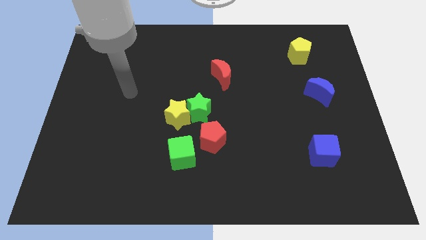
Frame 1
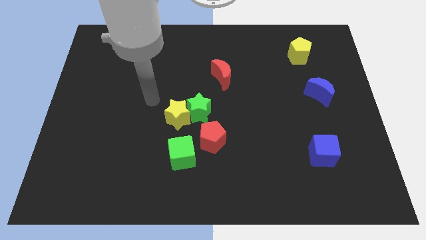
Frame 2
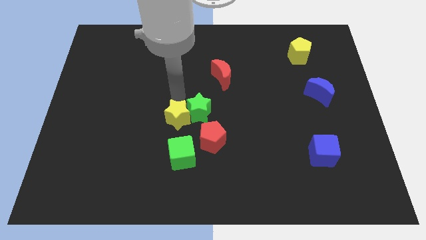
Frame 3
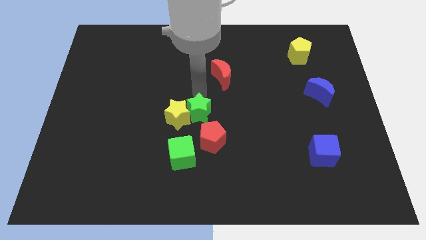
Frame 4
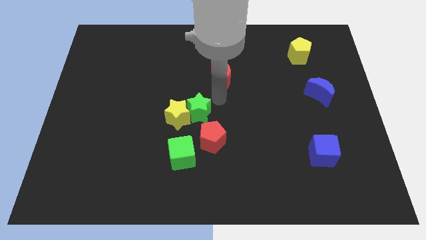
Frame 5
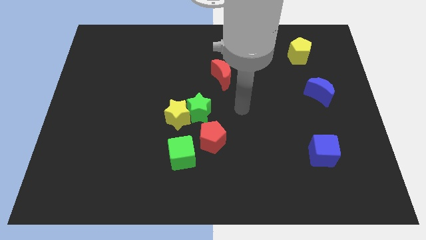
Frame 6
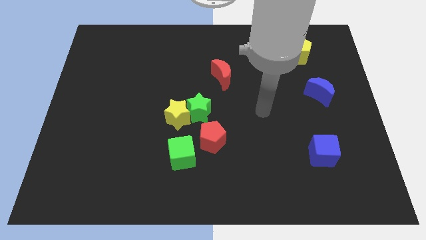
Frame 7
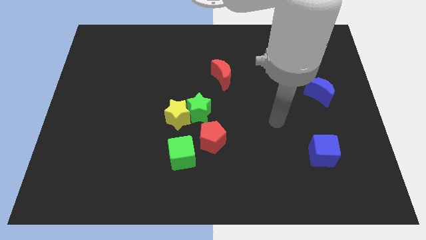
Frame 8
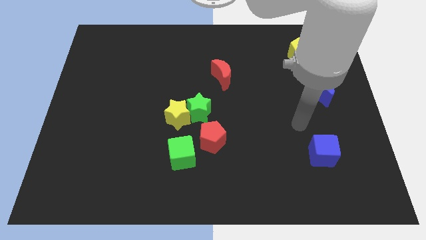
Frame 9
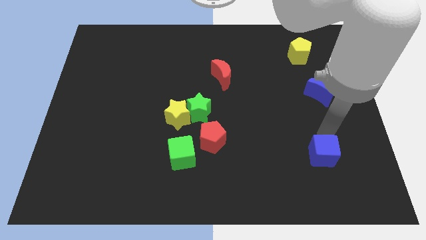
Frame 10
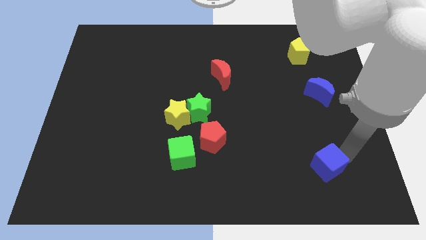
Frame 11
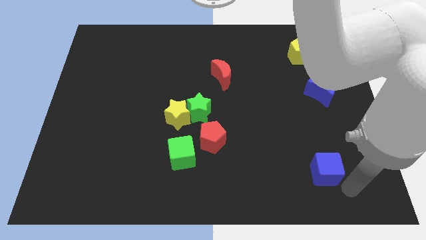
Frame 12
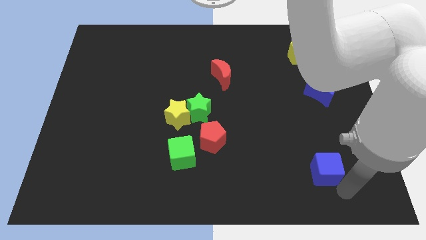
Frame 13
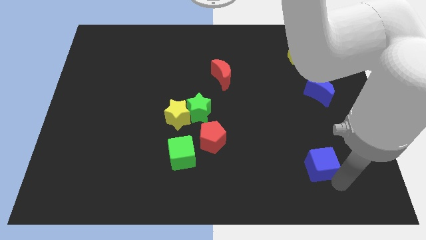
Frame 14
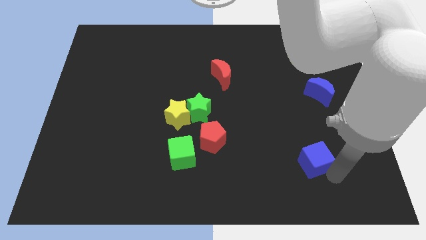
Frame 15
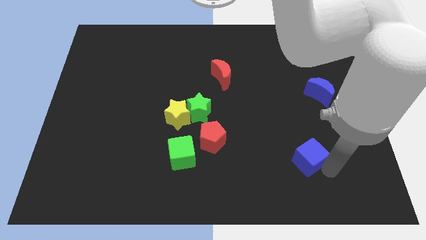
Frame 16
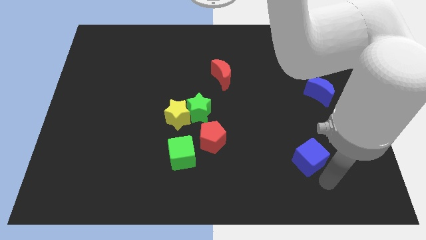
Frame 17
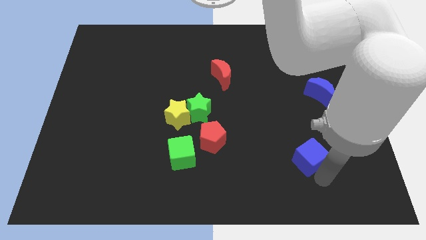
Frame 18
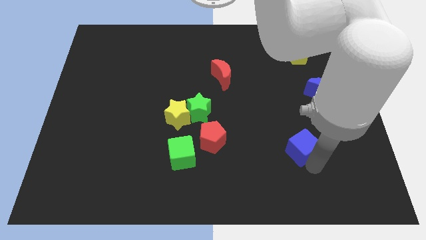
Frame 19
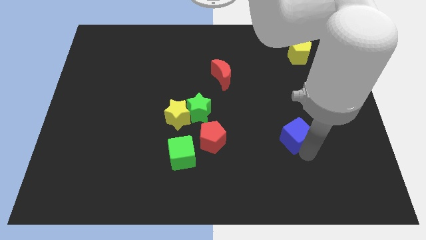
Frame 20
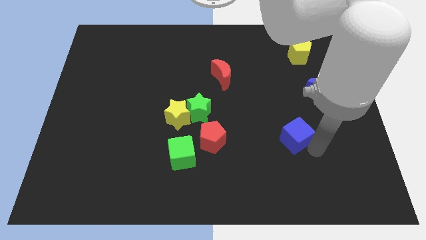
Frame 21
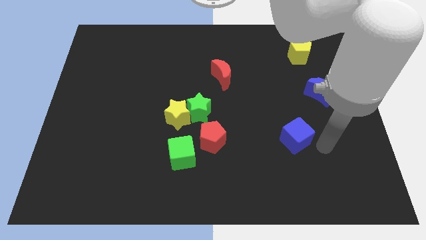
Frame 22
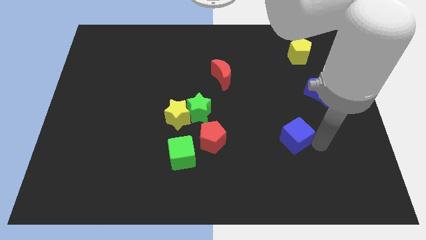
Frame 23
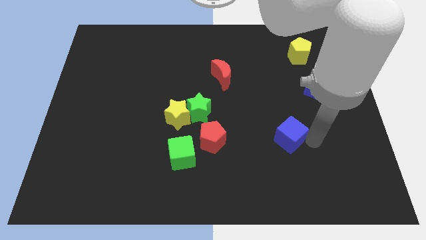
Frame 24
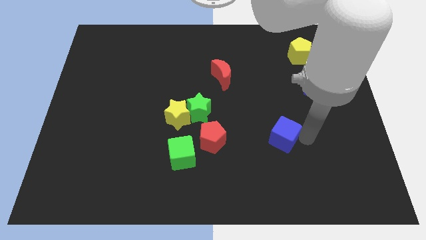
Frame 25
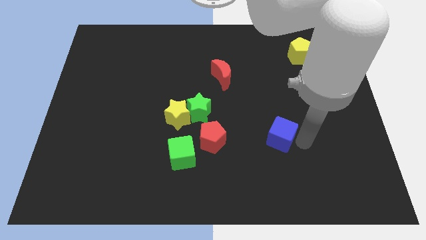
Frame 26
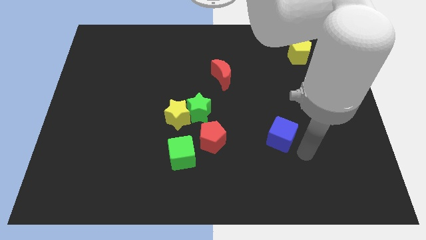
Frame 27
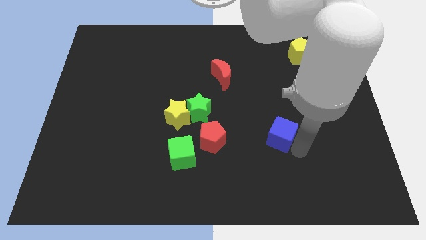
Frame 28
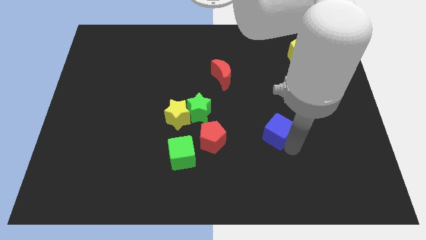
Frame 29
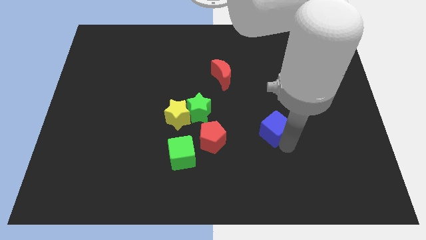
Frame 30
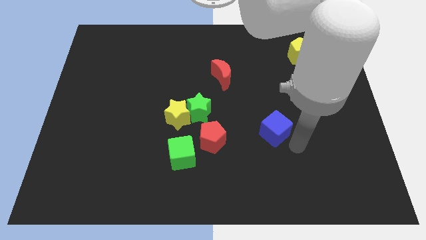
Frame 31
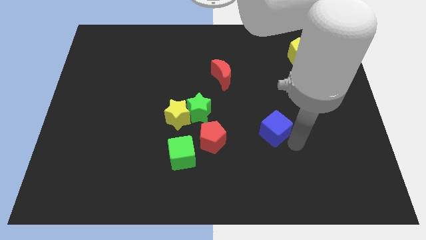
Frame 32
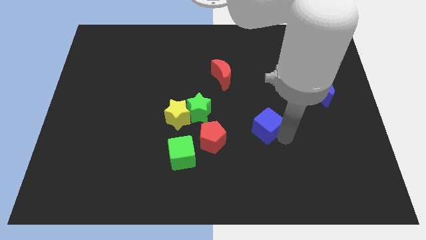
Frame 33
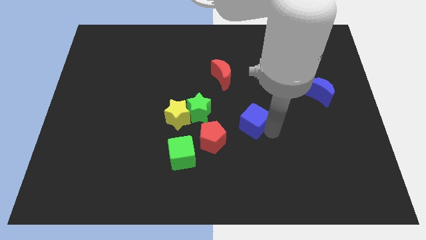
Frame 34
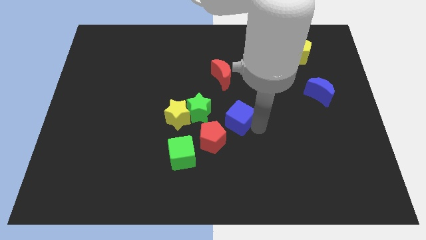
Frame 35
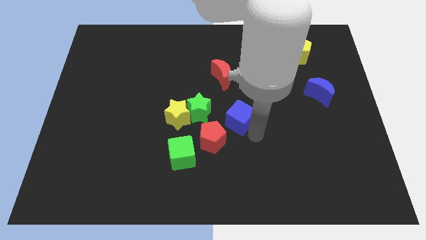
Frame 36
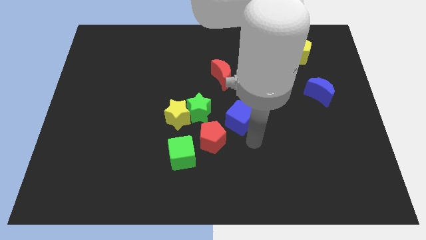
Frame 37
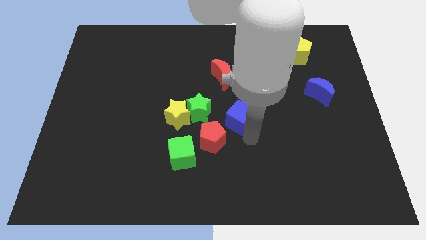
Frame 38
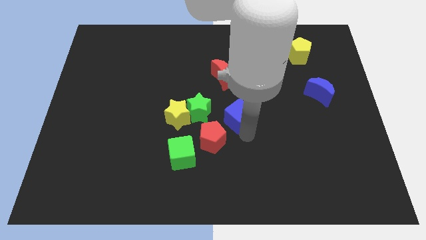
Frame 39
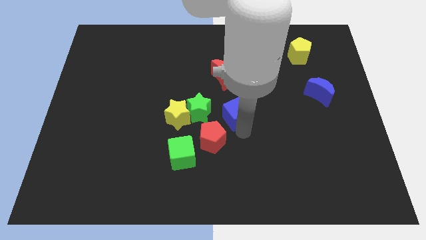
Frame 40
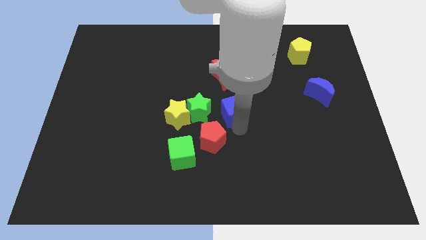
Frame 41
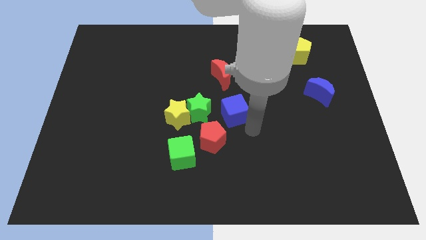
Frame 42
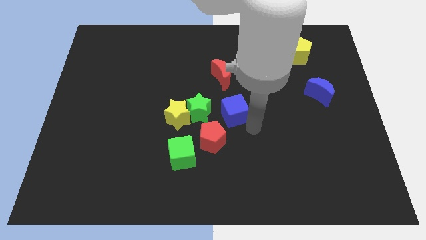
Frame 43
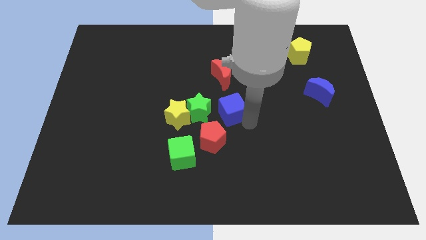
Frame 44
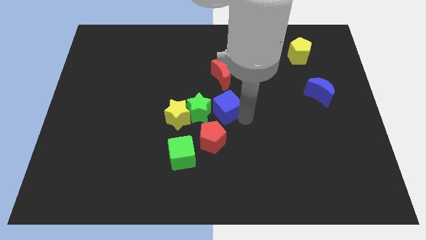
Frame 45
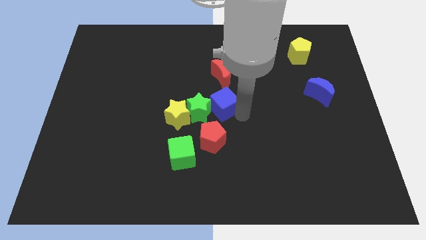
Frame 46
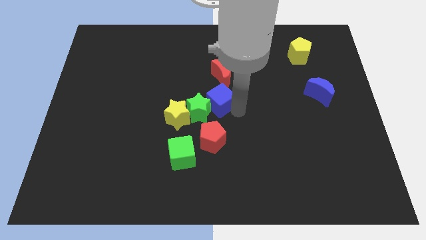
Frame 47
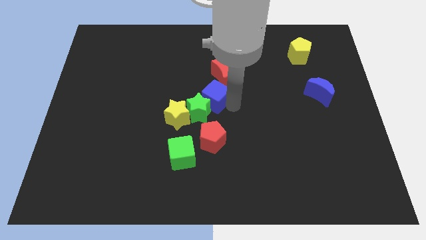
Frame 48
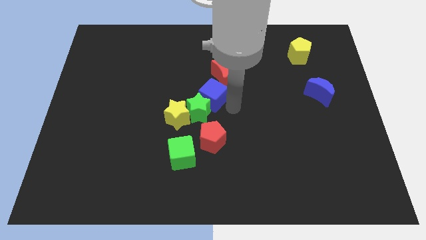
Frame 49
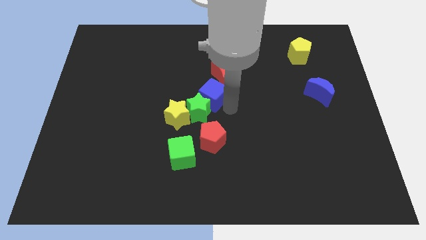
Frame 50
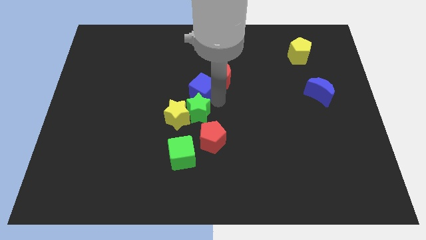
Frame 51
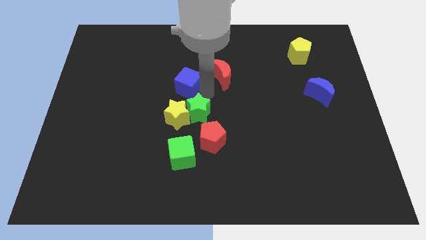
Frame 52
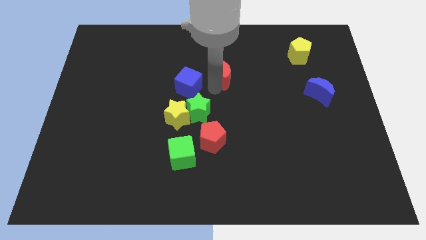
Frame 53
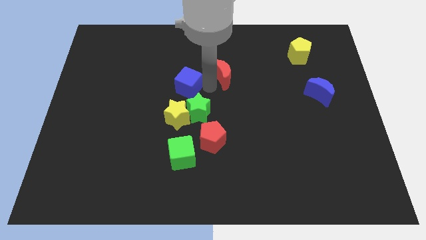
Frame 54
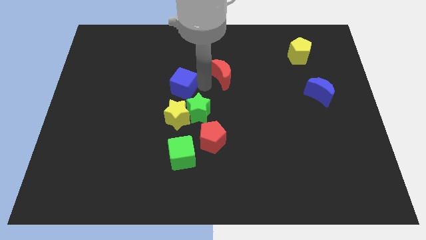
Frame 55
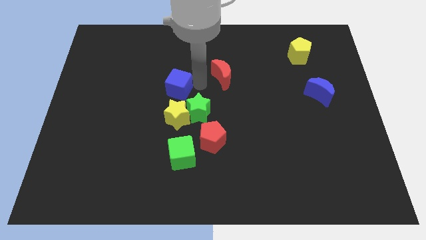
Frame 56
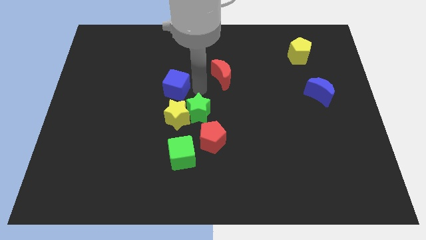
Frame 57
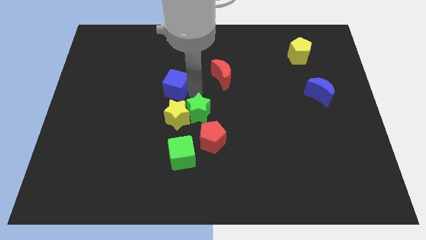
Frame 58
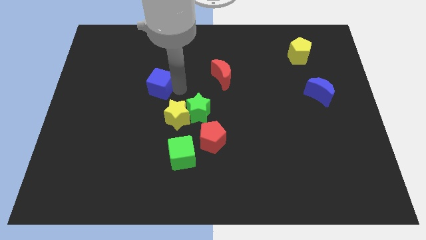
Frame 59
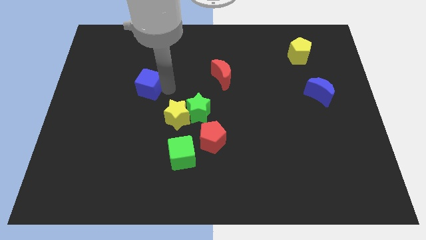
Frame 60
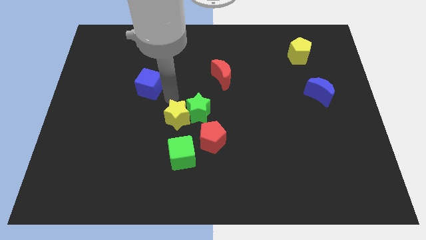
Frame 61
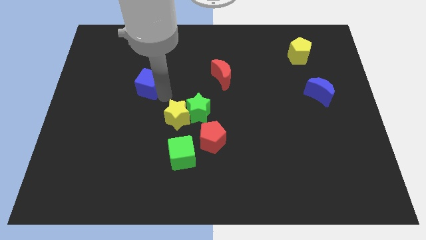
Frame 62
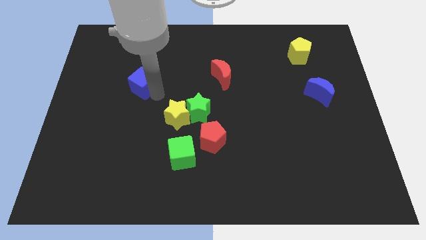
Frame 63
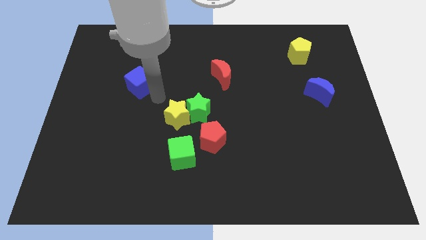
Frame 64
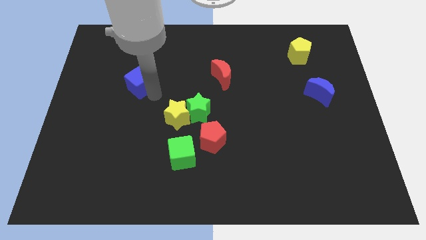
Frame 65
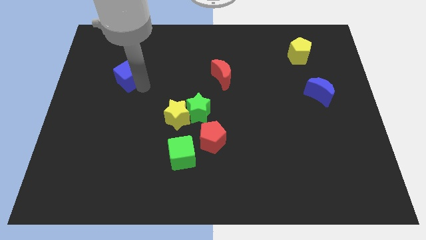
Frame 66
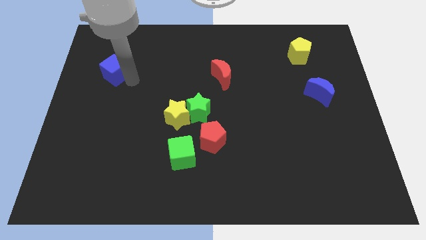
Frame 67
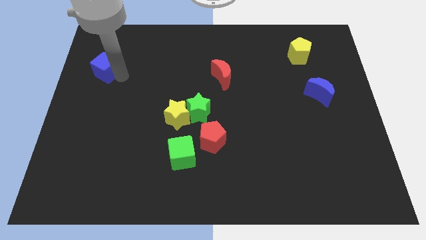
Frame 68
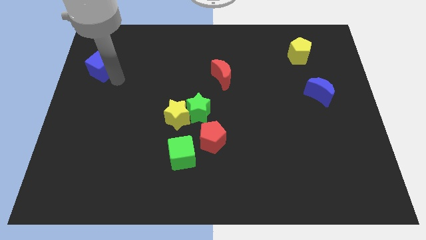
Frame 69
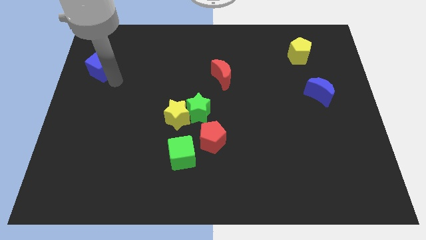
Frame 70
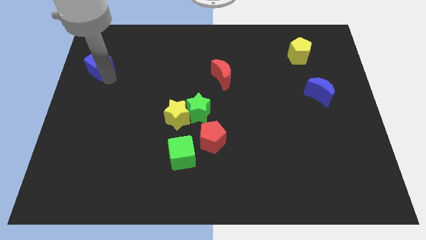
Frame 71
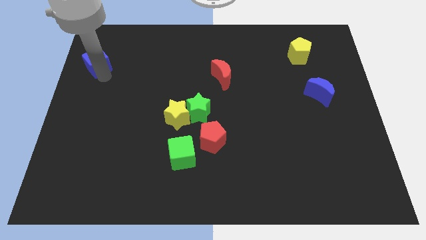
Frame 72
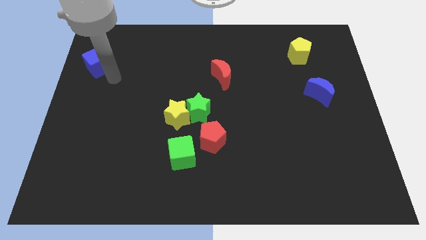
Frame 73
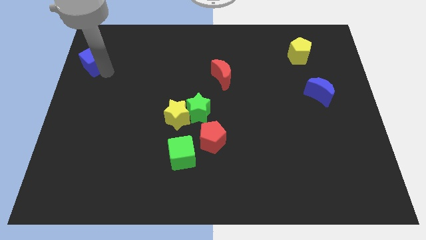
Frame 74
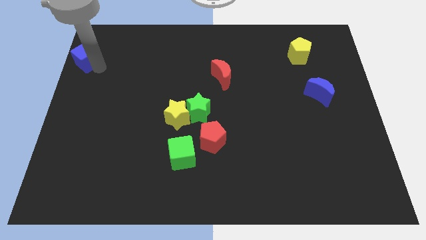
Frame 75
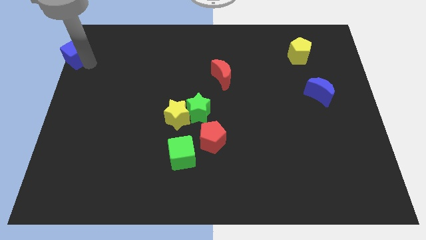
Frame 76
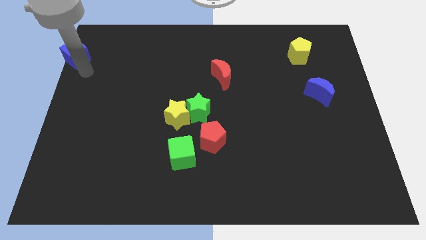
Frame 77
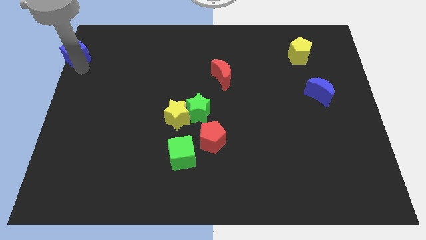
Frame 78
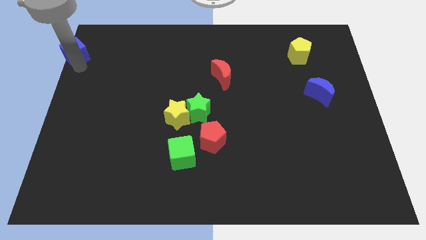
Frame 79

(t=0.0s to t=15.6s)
push the blue cube to the upper left corner
